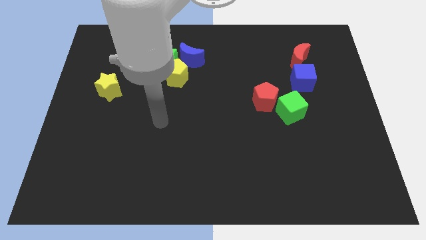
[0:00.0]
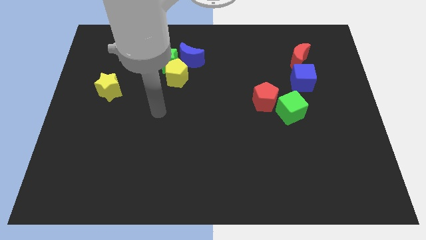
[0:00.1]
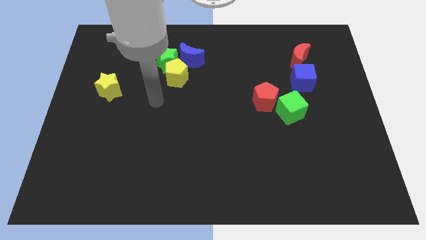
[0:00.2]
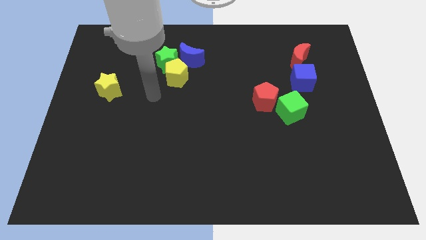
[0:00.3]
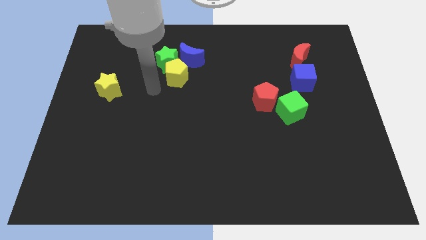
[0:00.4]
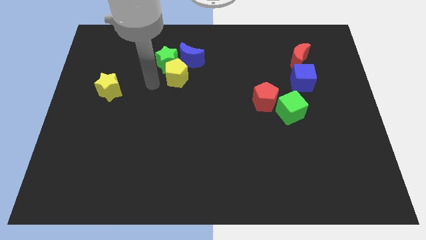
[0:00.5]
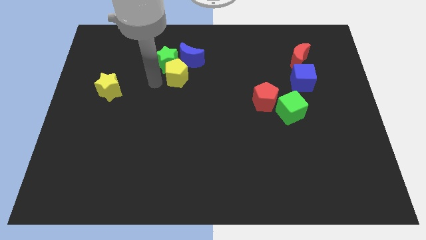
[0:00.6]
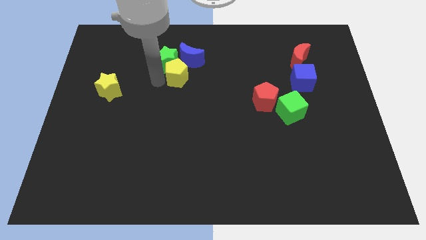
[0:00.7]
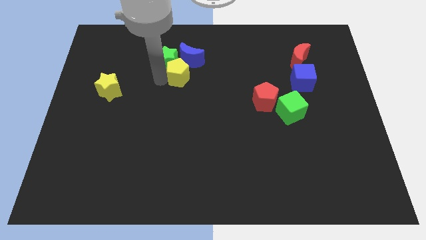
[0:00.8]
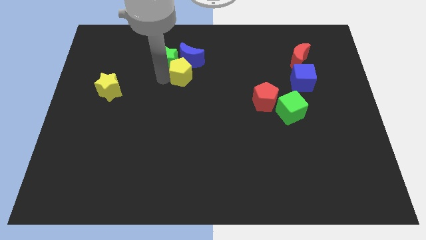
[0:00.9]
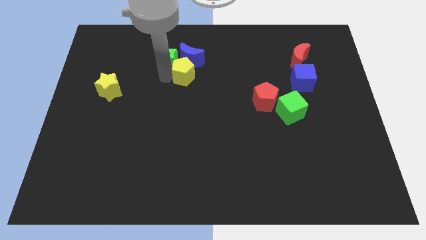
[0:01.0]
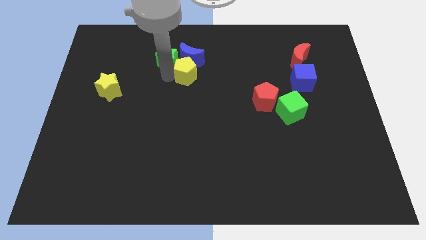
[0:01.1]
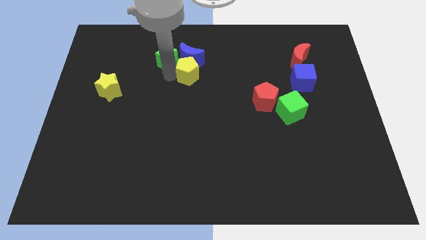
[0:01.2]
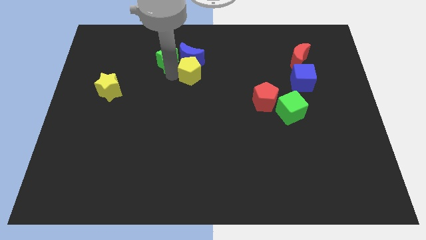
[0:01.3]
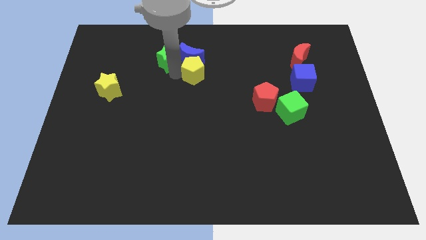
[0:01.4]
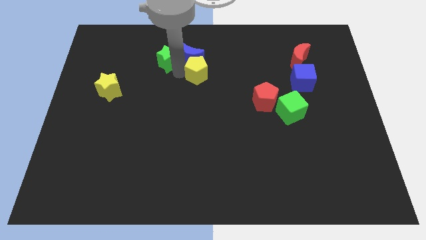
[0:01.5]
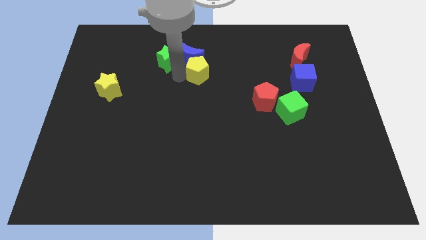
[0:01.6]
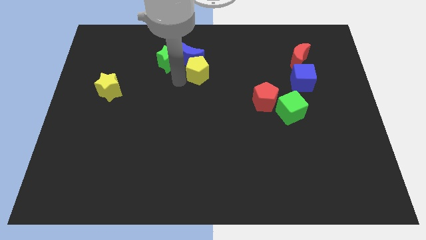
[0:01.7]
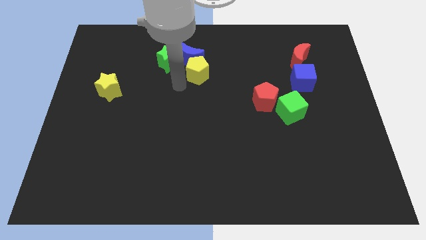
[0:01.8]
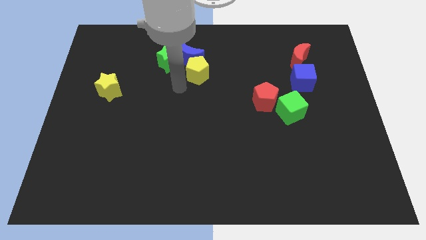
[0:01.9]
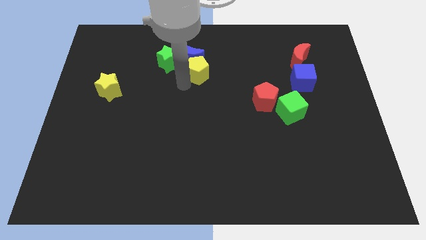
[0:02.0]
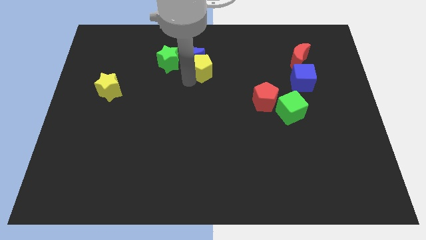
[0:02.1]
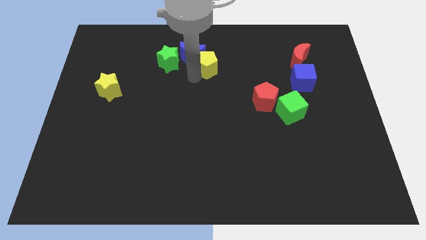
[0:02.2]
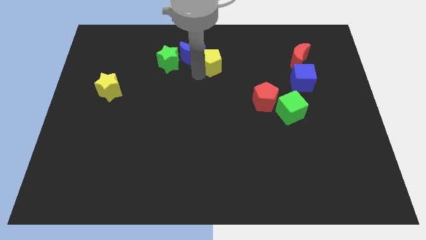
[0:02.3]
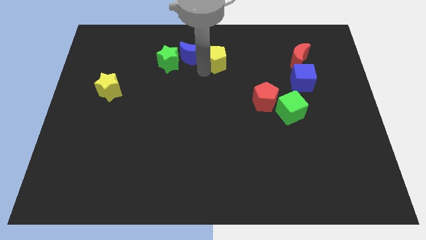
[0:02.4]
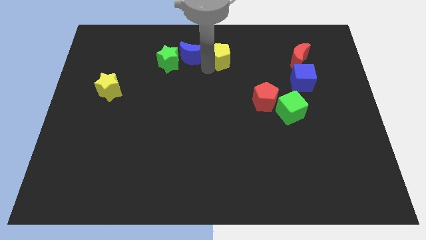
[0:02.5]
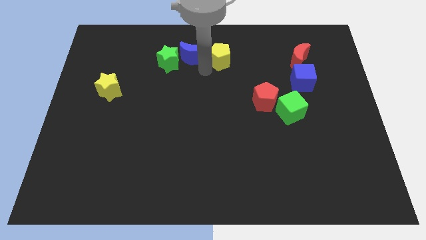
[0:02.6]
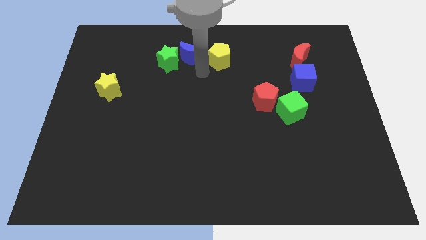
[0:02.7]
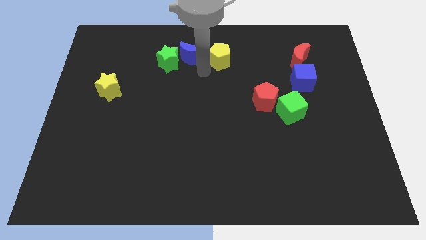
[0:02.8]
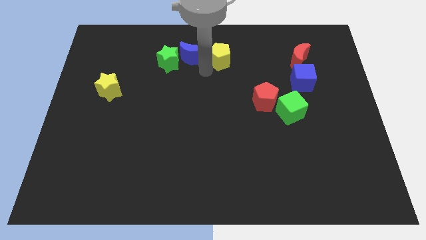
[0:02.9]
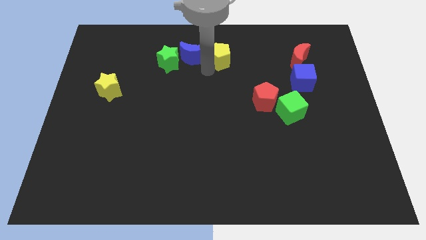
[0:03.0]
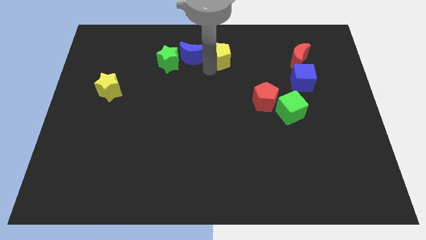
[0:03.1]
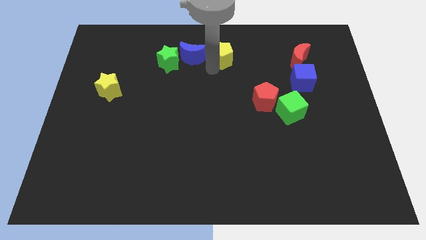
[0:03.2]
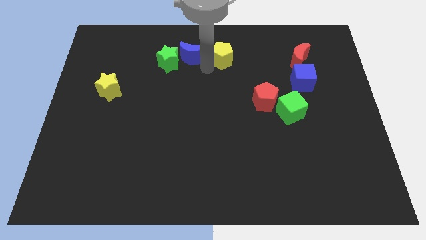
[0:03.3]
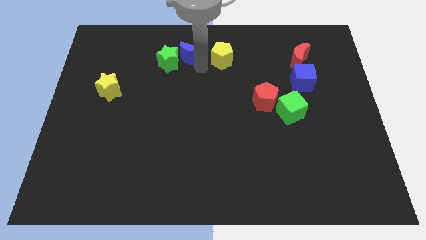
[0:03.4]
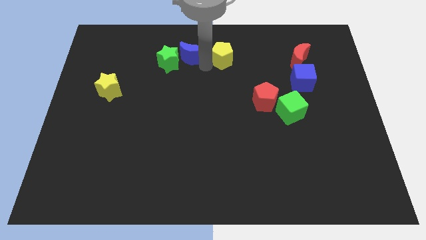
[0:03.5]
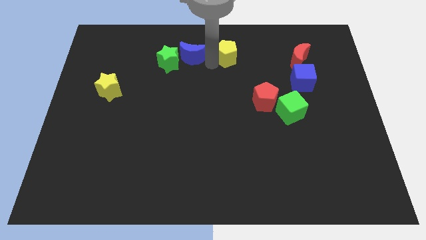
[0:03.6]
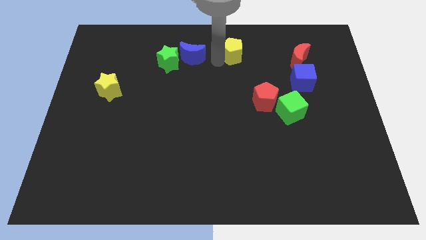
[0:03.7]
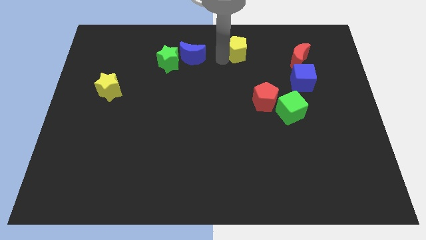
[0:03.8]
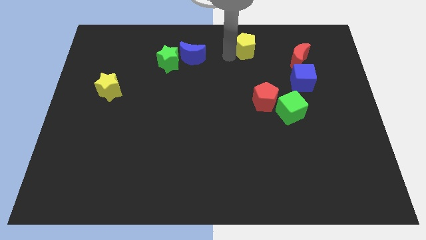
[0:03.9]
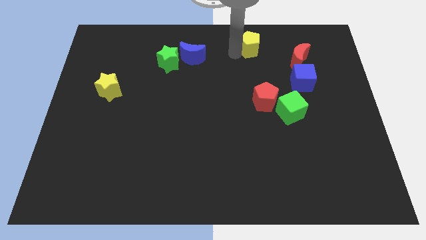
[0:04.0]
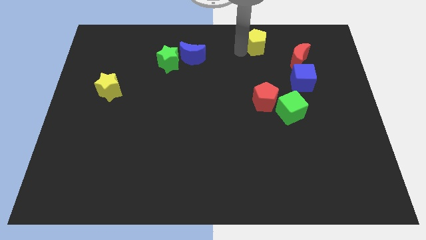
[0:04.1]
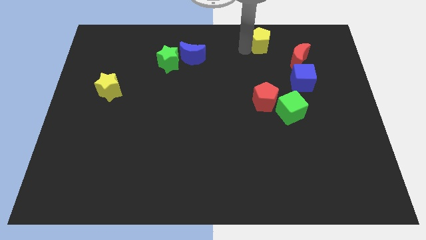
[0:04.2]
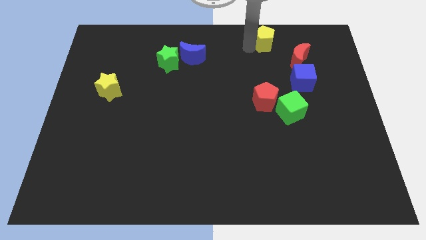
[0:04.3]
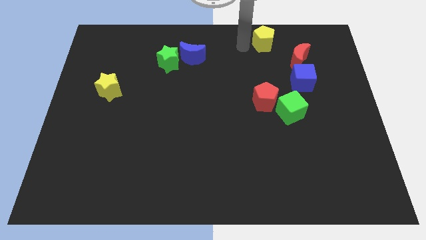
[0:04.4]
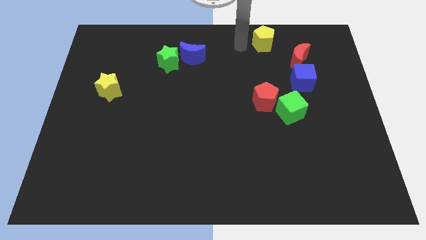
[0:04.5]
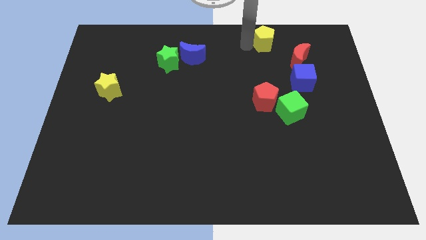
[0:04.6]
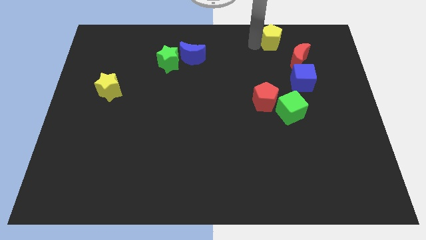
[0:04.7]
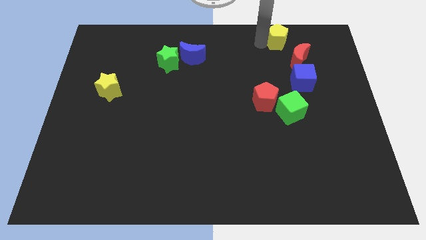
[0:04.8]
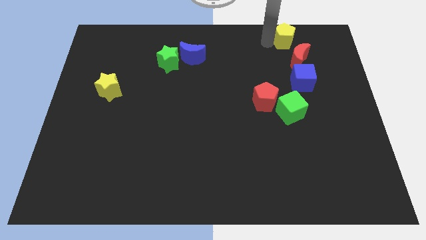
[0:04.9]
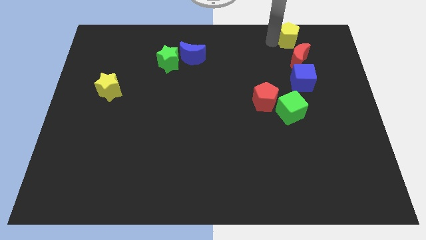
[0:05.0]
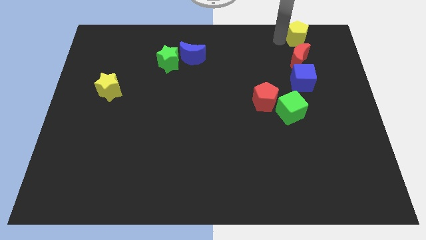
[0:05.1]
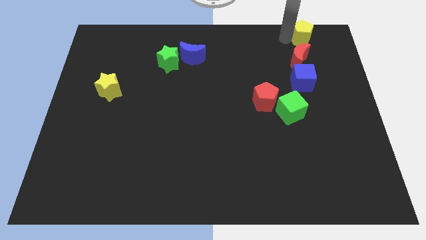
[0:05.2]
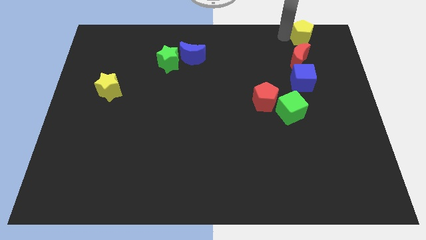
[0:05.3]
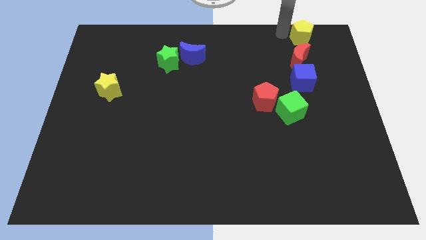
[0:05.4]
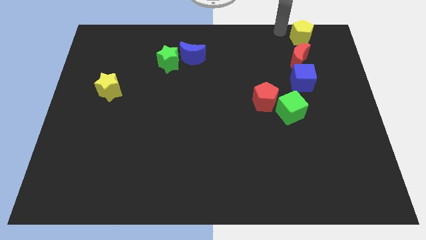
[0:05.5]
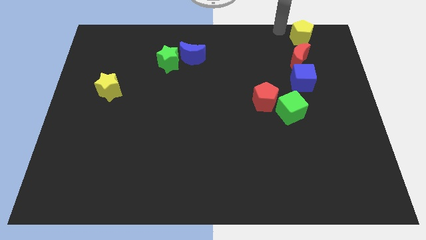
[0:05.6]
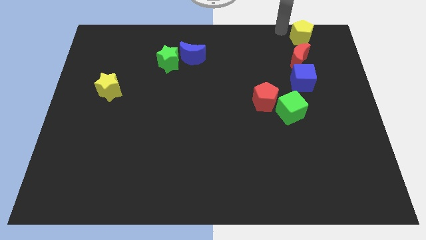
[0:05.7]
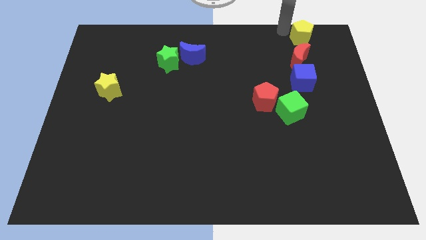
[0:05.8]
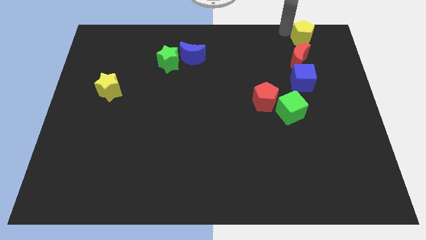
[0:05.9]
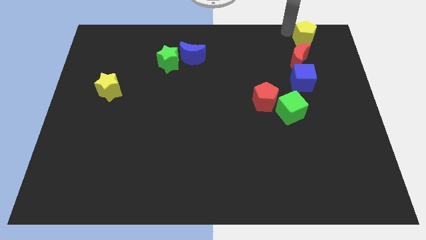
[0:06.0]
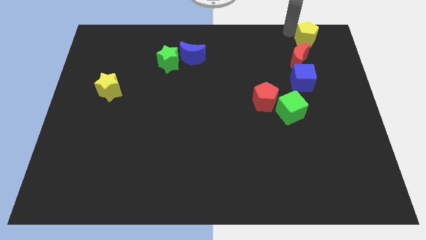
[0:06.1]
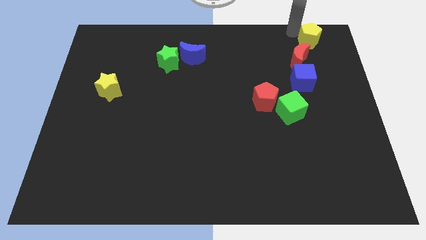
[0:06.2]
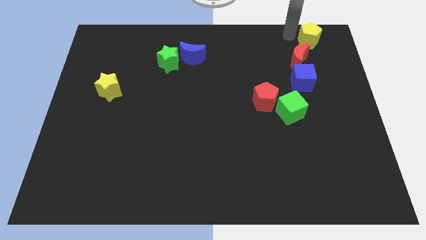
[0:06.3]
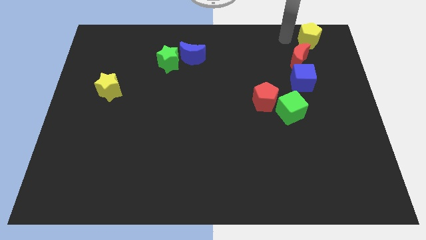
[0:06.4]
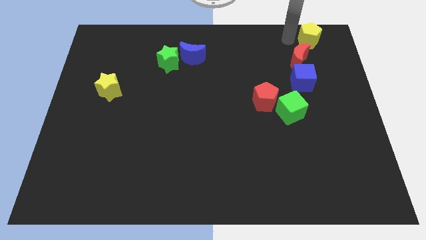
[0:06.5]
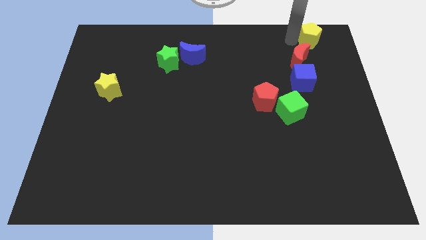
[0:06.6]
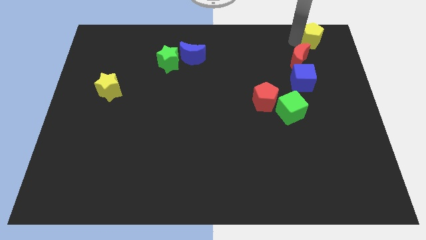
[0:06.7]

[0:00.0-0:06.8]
put the yellow pentagon to the upper right corner

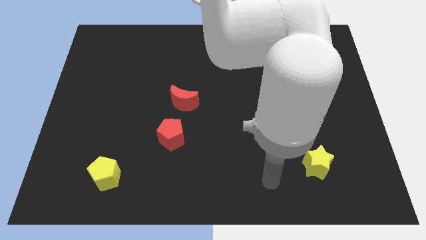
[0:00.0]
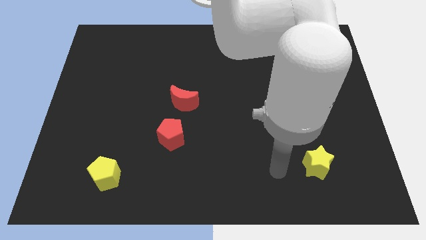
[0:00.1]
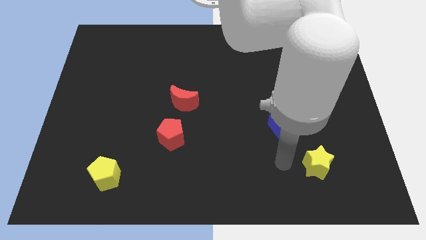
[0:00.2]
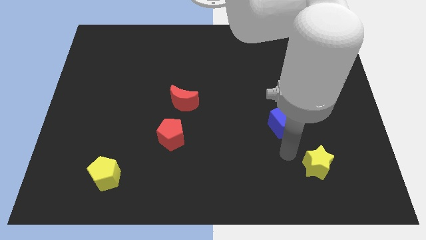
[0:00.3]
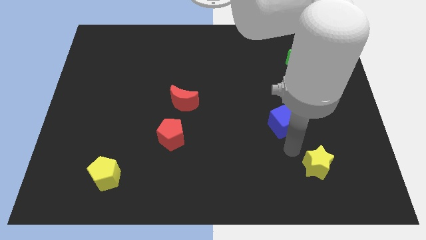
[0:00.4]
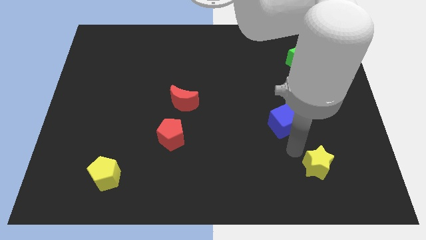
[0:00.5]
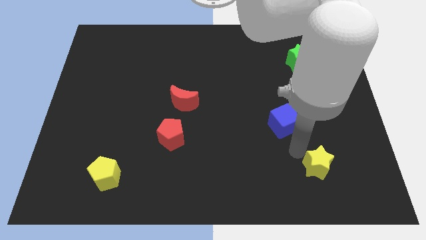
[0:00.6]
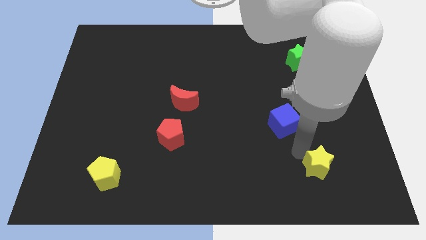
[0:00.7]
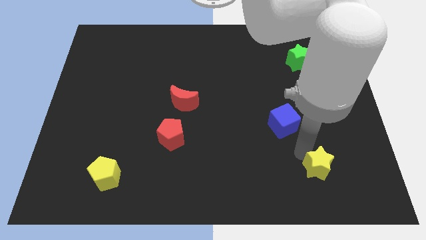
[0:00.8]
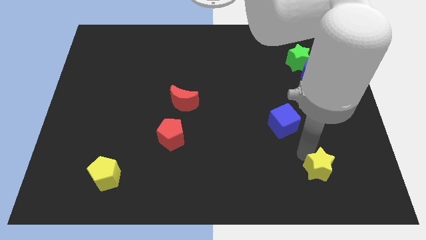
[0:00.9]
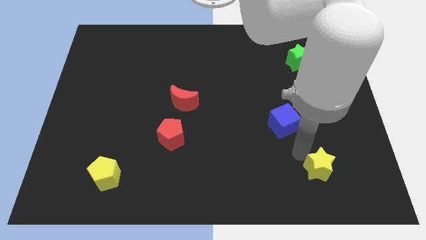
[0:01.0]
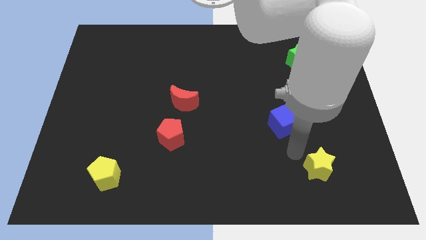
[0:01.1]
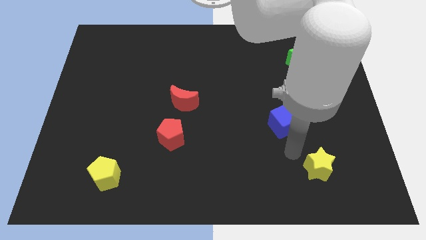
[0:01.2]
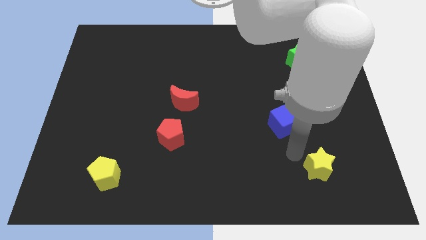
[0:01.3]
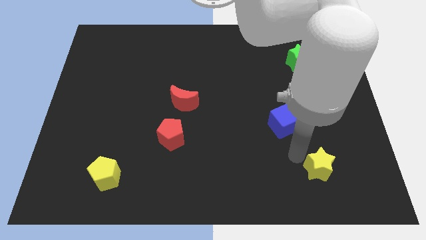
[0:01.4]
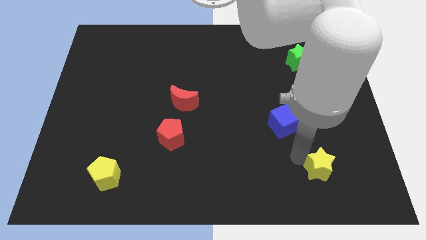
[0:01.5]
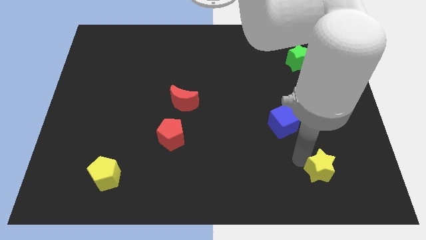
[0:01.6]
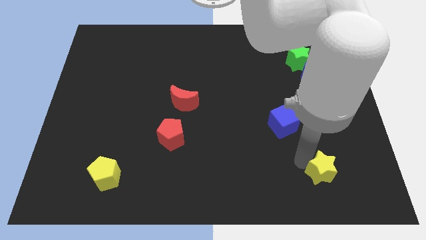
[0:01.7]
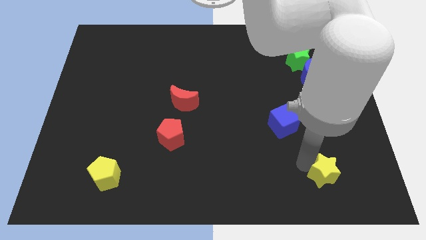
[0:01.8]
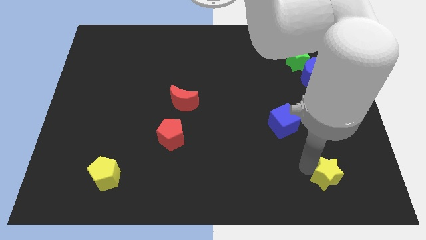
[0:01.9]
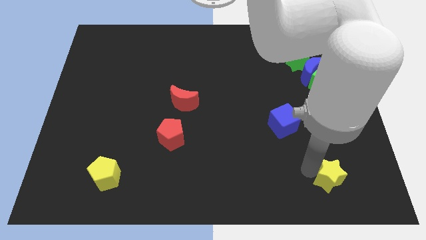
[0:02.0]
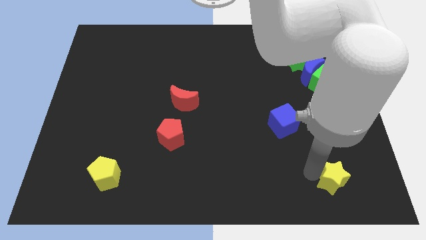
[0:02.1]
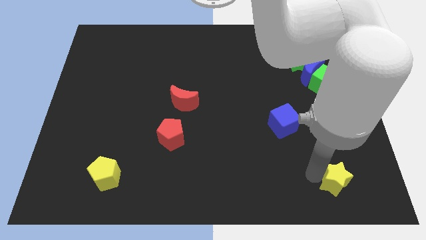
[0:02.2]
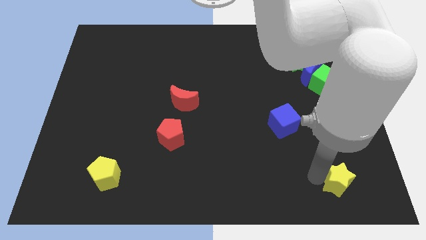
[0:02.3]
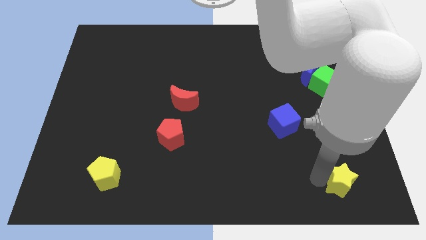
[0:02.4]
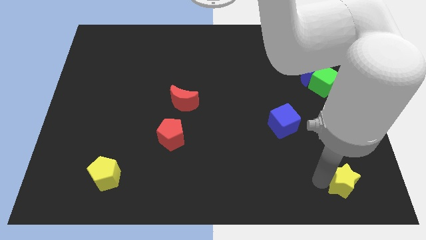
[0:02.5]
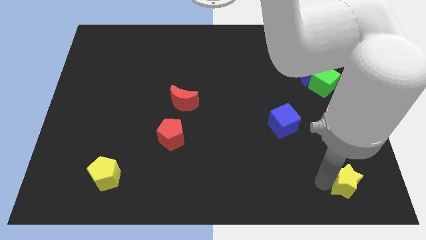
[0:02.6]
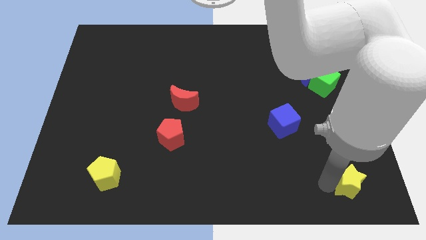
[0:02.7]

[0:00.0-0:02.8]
move the yellow star to the bottom right of the board
